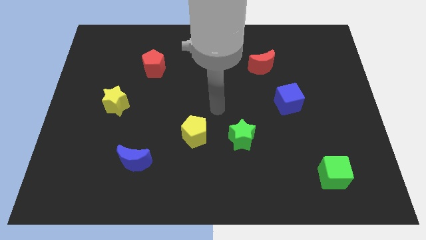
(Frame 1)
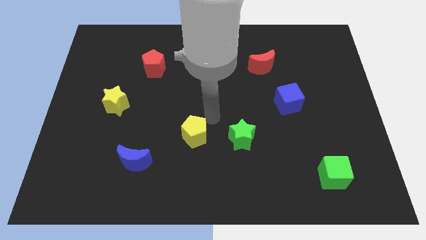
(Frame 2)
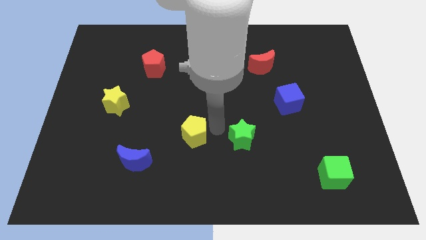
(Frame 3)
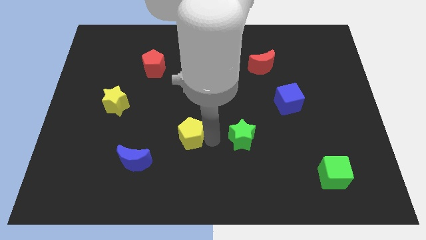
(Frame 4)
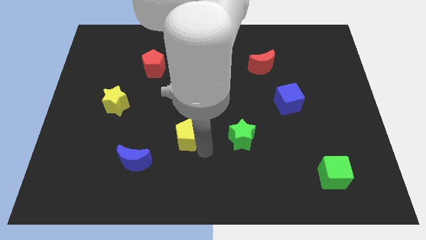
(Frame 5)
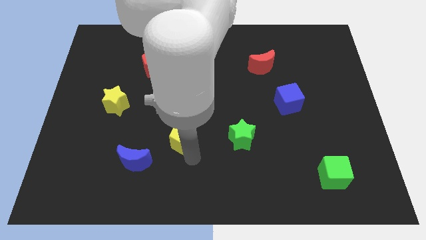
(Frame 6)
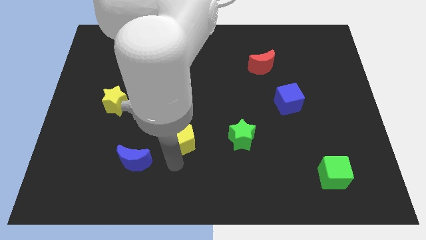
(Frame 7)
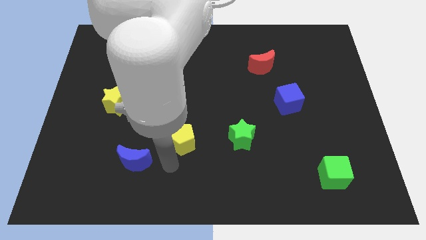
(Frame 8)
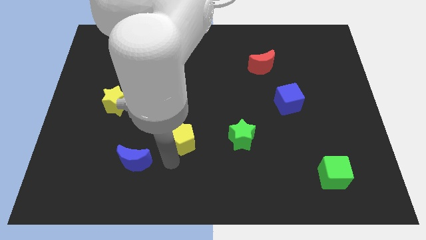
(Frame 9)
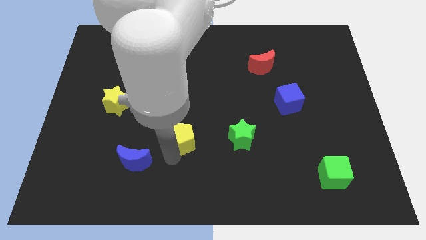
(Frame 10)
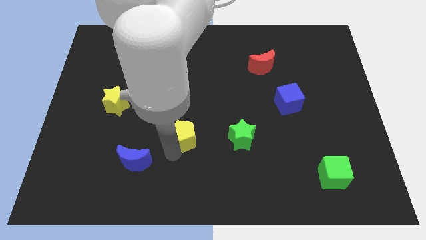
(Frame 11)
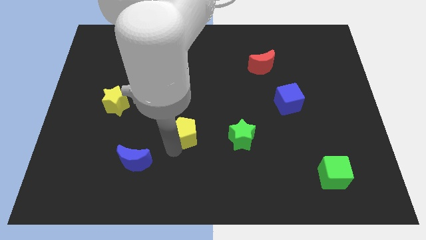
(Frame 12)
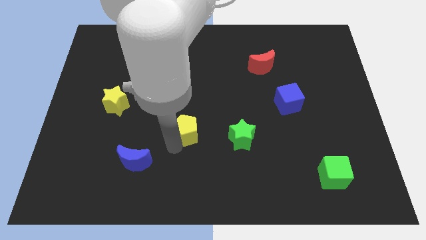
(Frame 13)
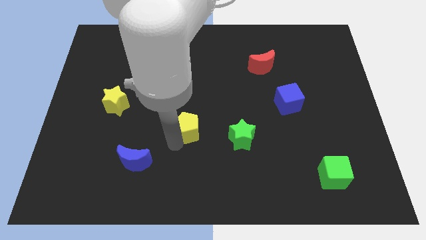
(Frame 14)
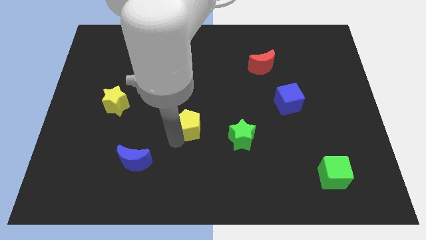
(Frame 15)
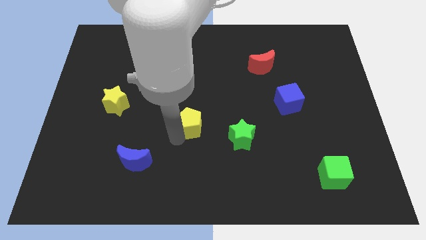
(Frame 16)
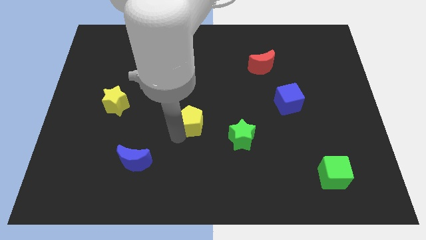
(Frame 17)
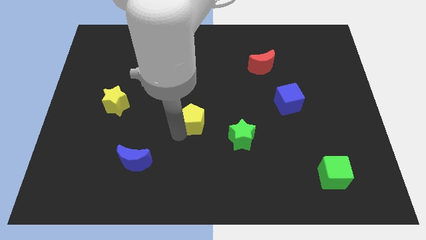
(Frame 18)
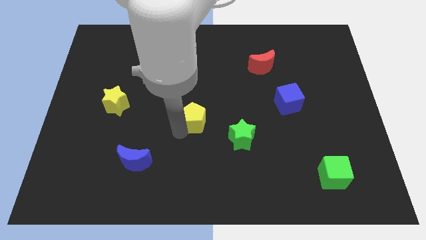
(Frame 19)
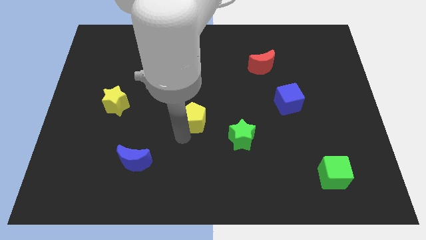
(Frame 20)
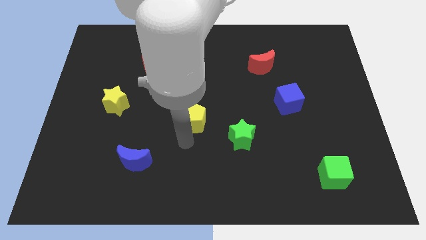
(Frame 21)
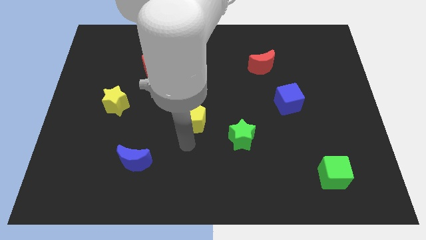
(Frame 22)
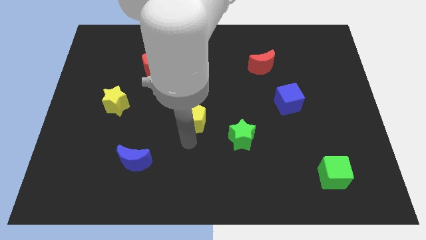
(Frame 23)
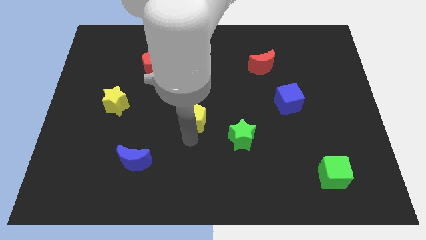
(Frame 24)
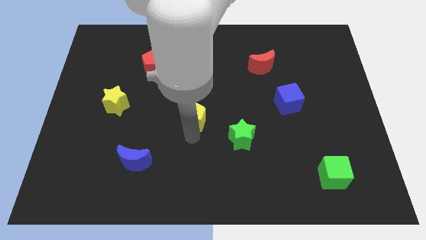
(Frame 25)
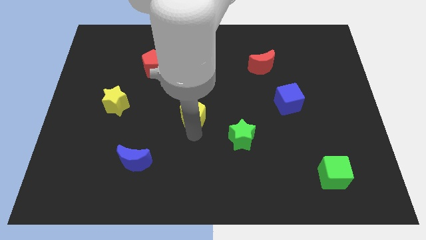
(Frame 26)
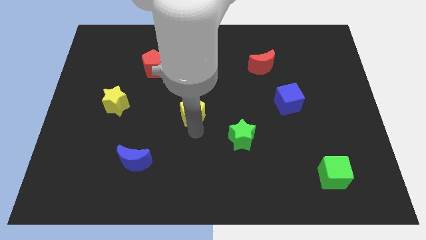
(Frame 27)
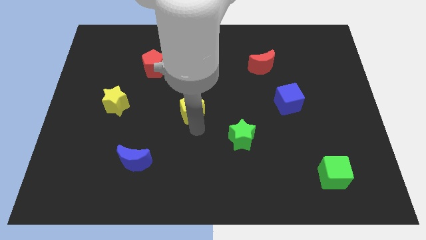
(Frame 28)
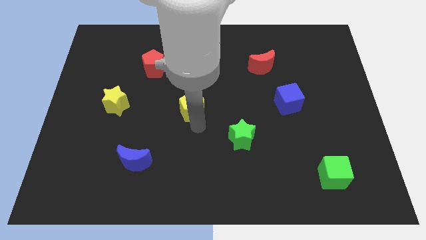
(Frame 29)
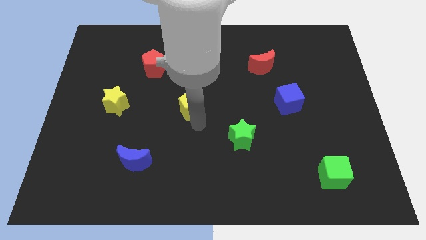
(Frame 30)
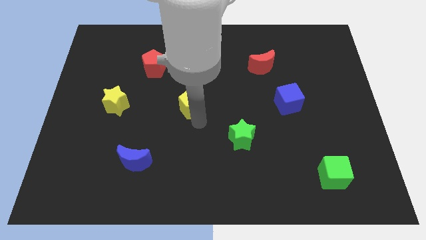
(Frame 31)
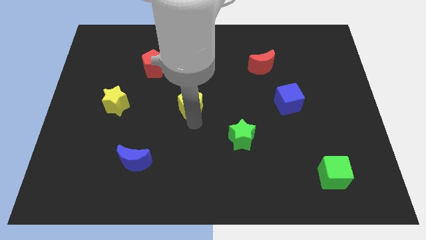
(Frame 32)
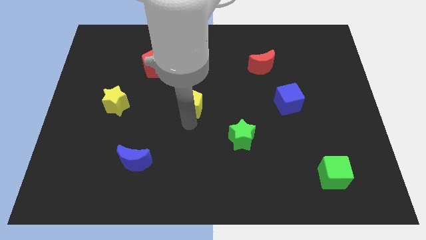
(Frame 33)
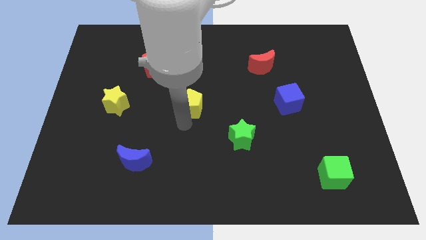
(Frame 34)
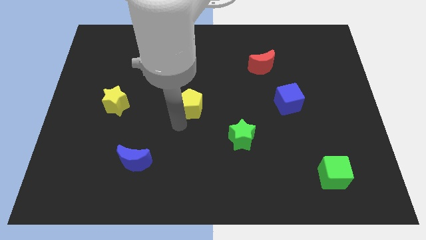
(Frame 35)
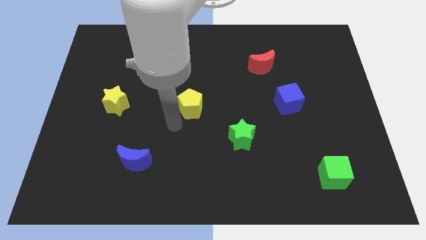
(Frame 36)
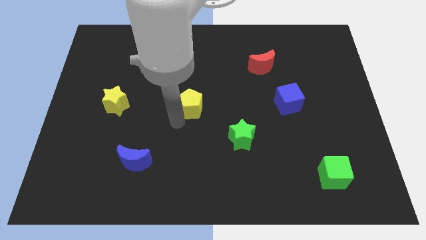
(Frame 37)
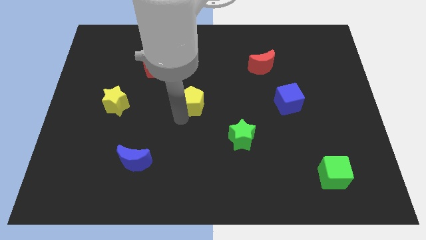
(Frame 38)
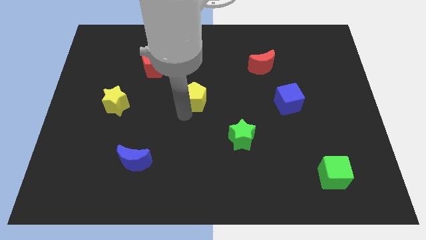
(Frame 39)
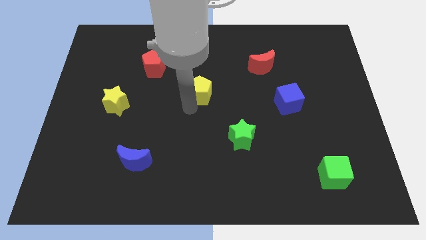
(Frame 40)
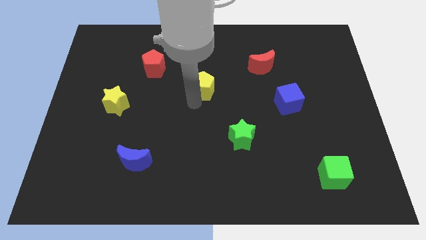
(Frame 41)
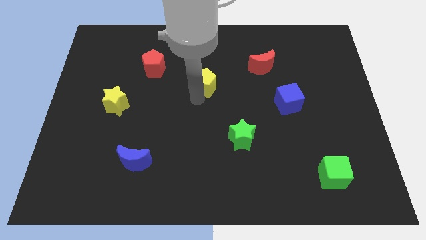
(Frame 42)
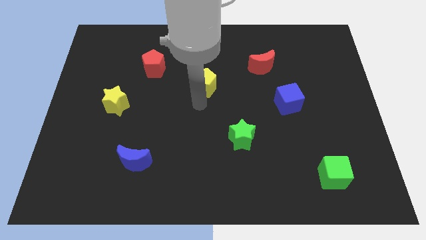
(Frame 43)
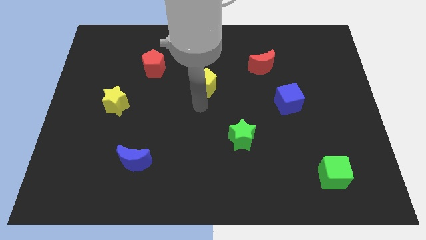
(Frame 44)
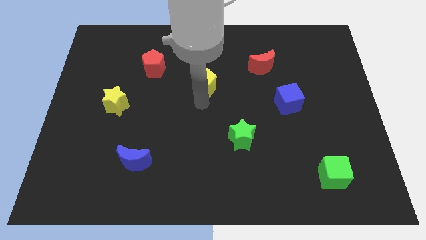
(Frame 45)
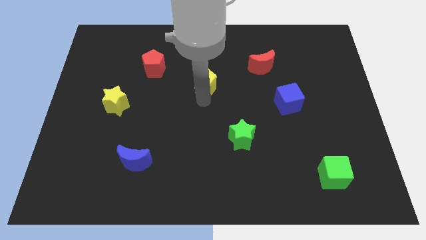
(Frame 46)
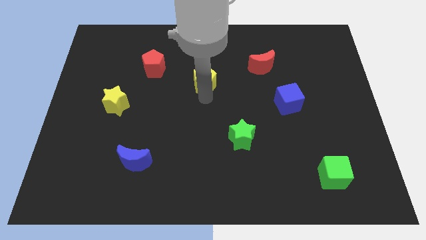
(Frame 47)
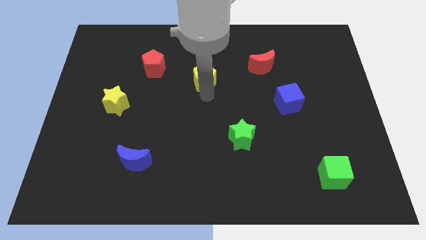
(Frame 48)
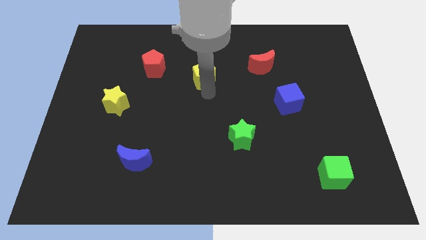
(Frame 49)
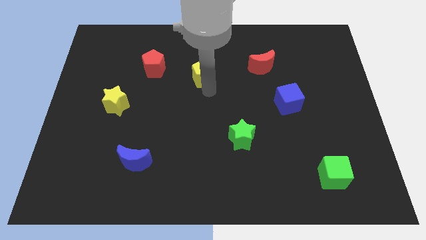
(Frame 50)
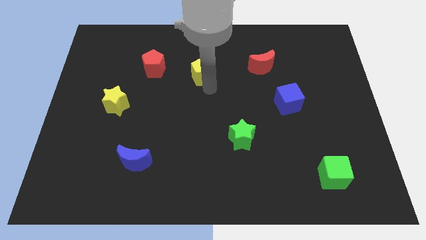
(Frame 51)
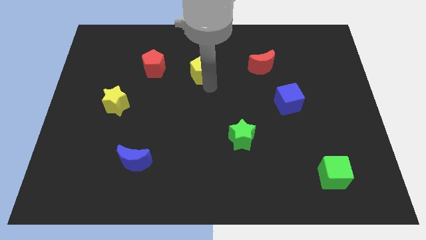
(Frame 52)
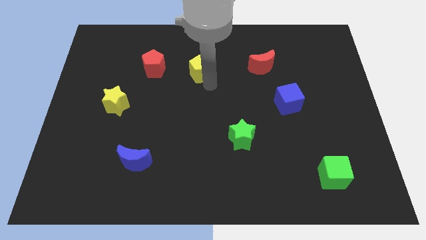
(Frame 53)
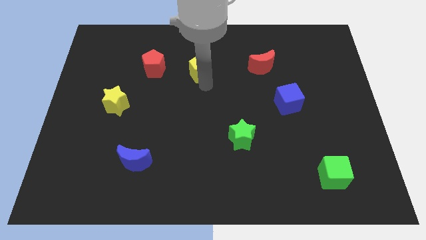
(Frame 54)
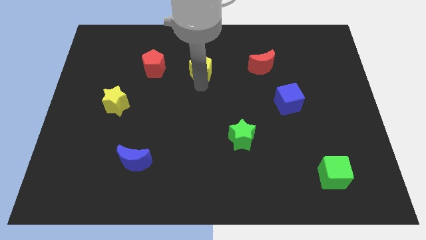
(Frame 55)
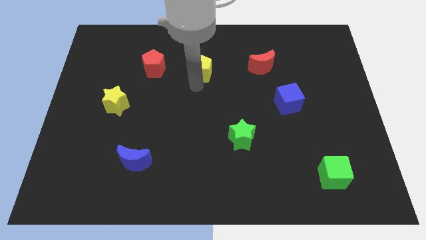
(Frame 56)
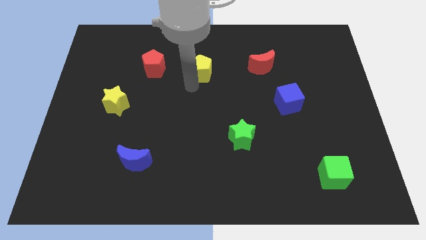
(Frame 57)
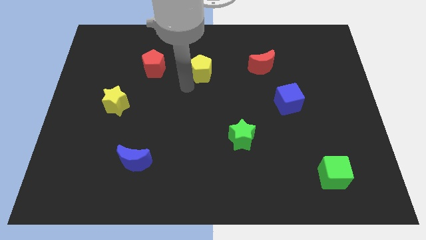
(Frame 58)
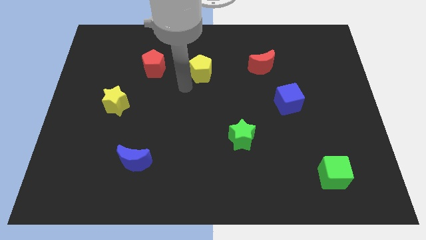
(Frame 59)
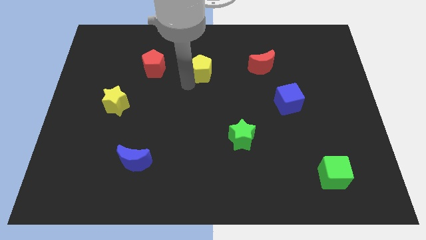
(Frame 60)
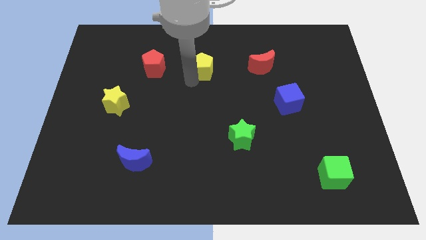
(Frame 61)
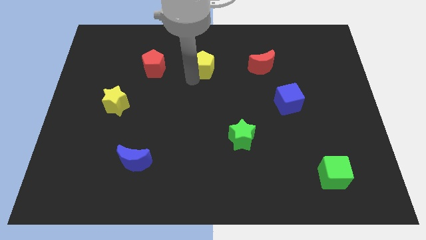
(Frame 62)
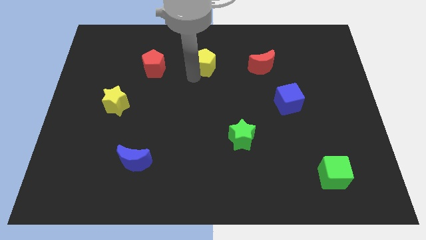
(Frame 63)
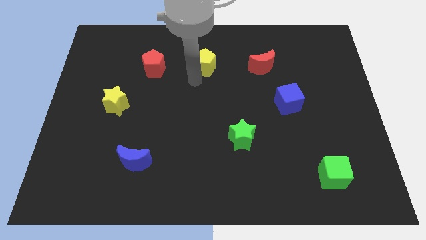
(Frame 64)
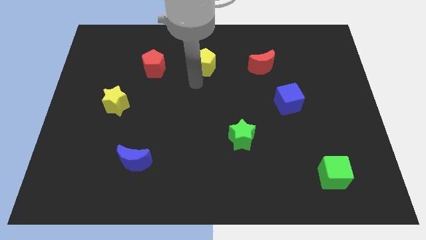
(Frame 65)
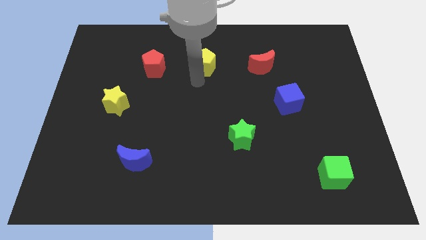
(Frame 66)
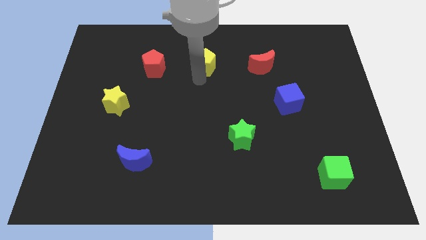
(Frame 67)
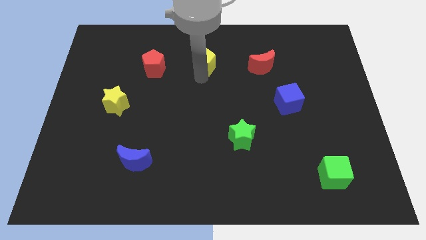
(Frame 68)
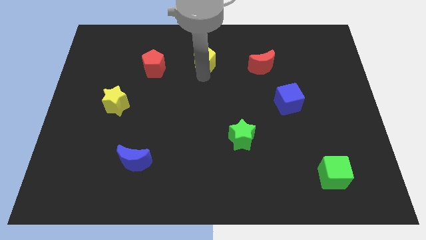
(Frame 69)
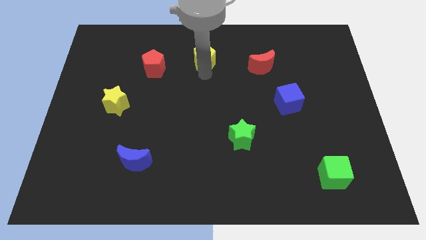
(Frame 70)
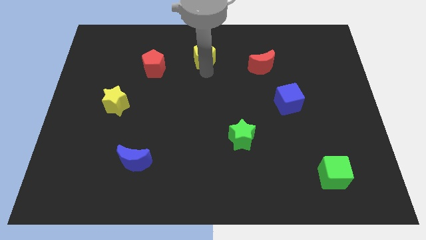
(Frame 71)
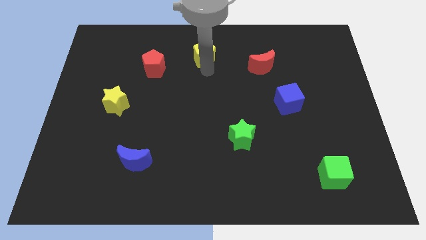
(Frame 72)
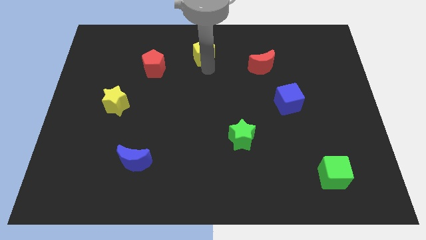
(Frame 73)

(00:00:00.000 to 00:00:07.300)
put the yellow pentagon to the top
